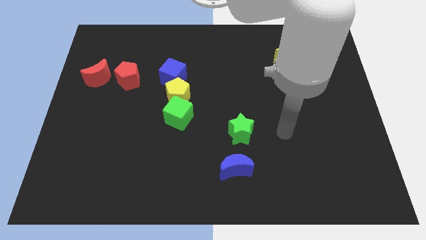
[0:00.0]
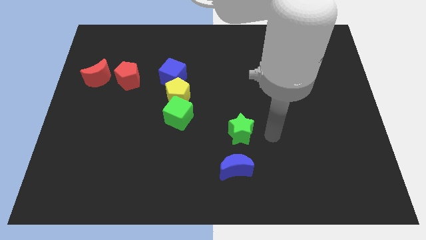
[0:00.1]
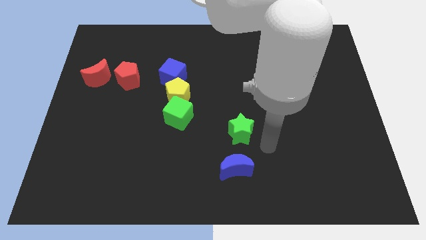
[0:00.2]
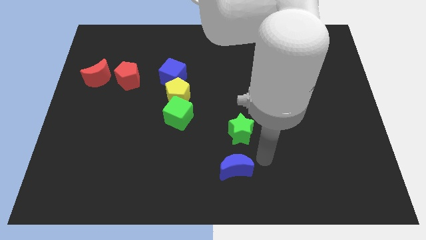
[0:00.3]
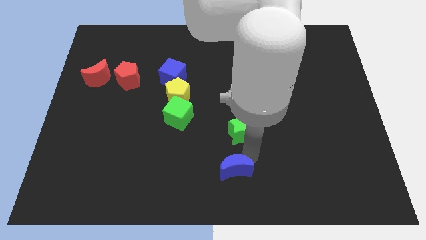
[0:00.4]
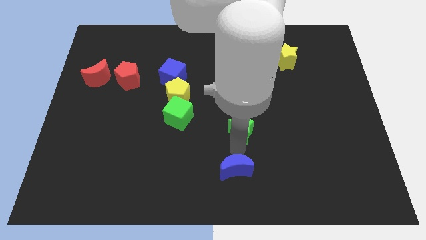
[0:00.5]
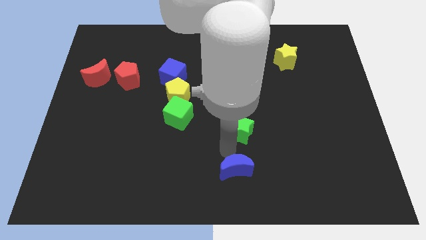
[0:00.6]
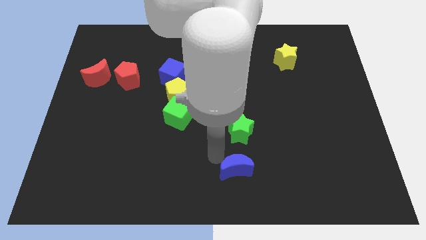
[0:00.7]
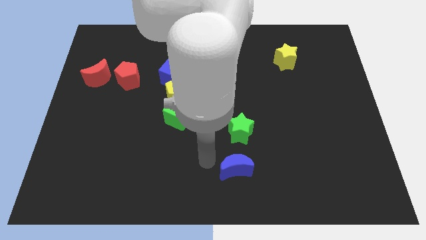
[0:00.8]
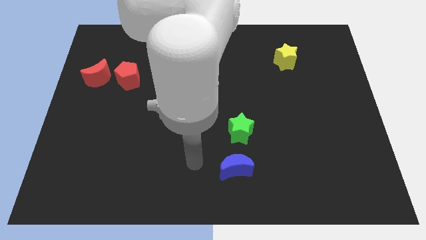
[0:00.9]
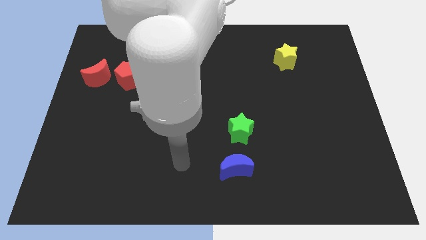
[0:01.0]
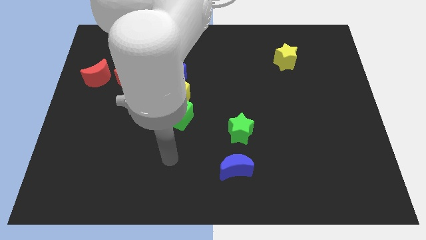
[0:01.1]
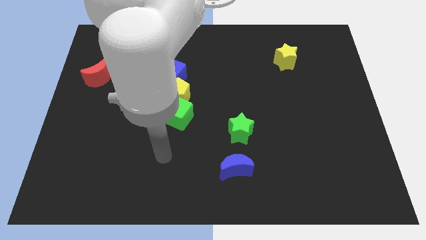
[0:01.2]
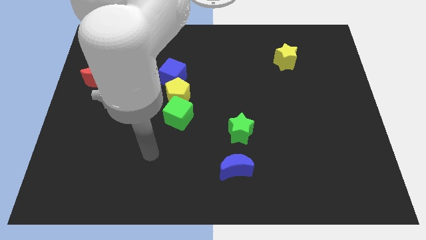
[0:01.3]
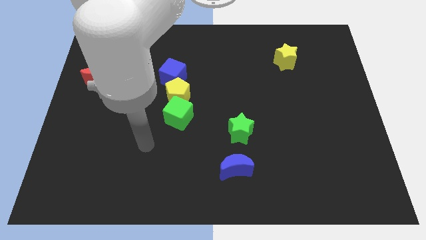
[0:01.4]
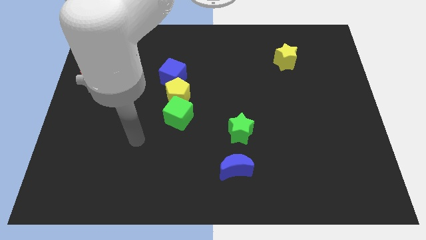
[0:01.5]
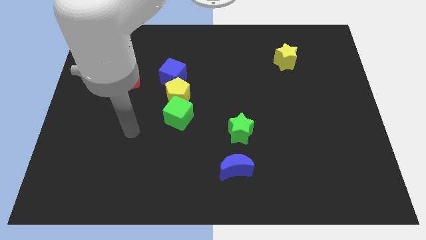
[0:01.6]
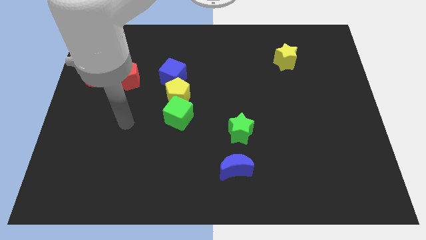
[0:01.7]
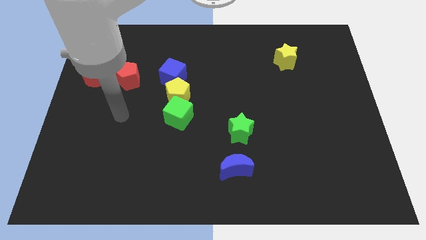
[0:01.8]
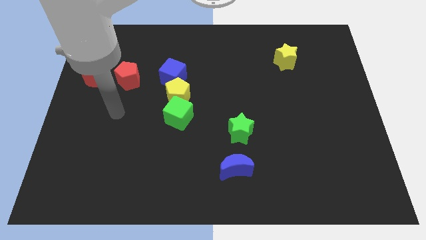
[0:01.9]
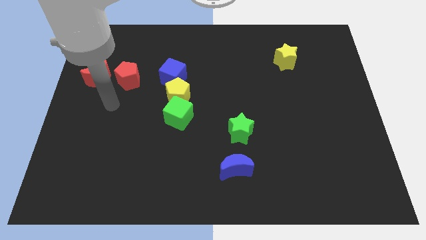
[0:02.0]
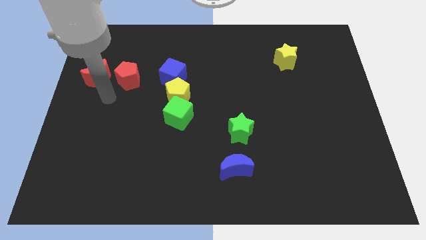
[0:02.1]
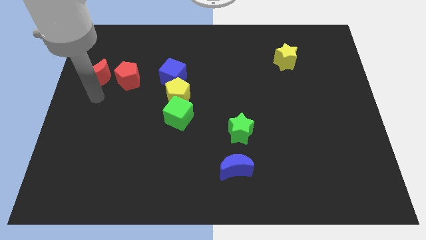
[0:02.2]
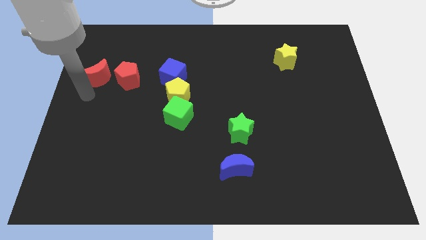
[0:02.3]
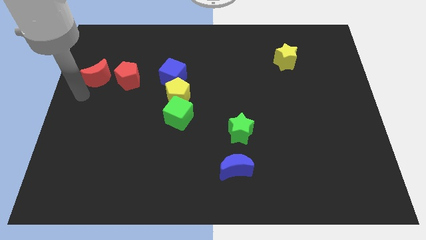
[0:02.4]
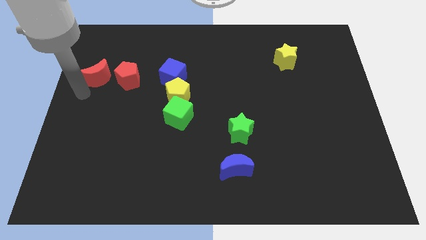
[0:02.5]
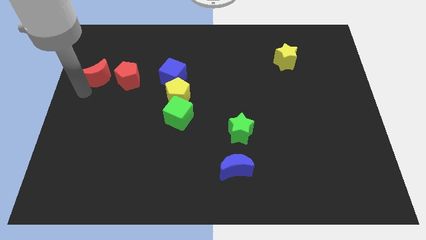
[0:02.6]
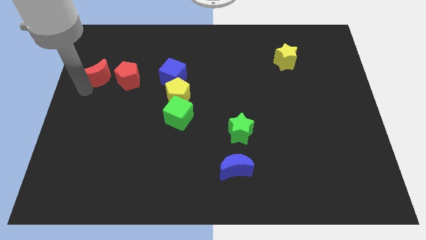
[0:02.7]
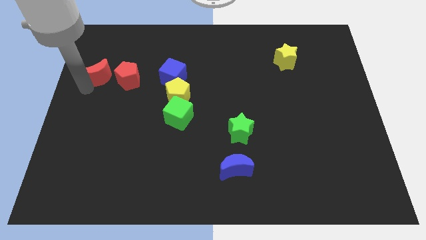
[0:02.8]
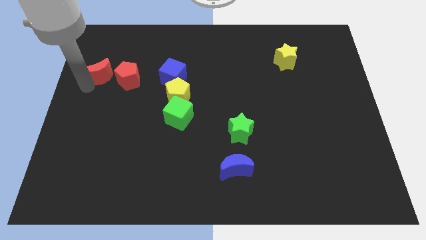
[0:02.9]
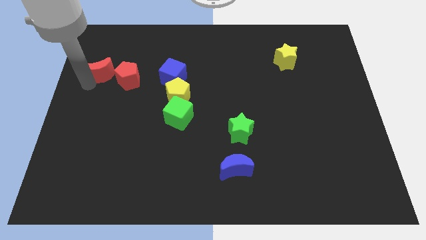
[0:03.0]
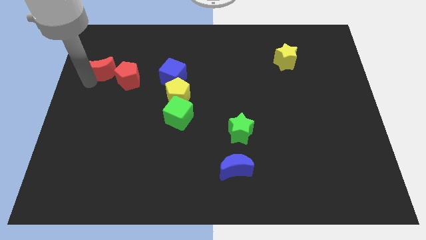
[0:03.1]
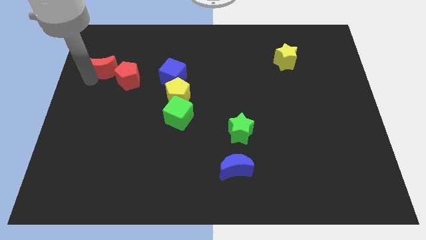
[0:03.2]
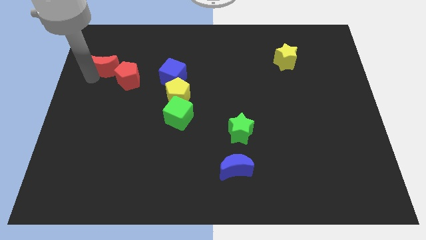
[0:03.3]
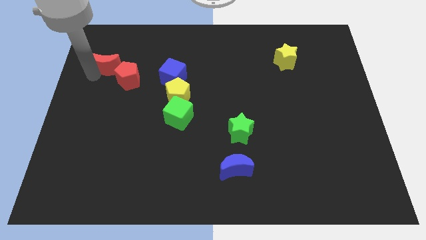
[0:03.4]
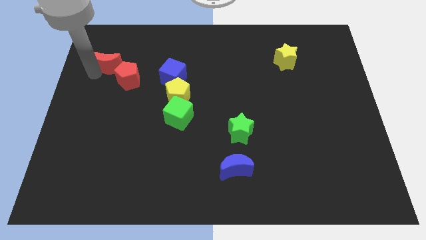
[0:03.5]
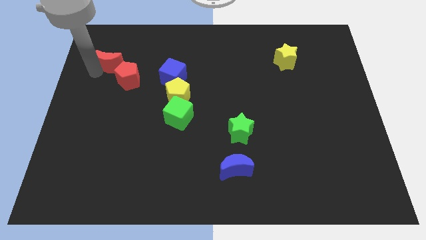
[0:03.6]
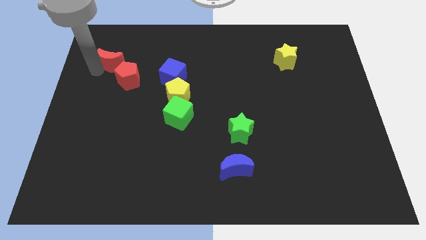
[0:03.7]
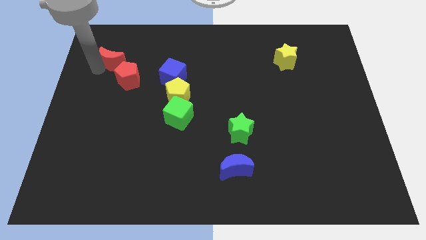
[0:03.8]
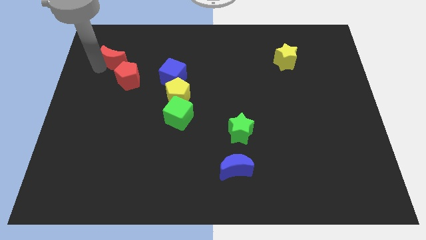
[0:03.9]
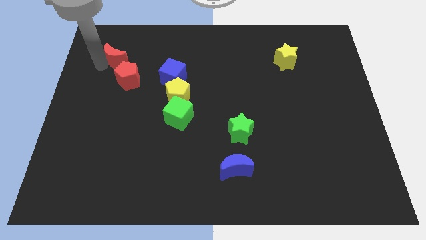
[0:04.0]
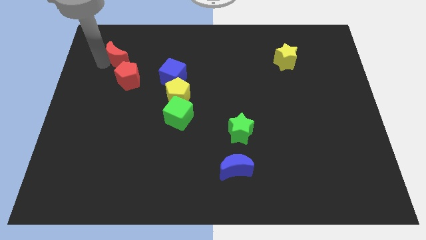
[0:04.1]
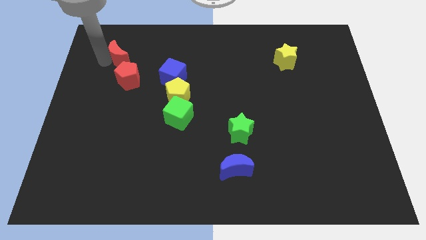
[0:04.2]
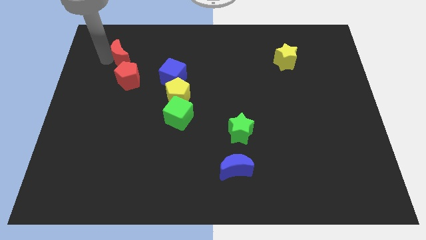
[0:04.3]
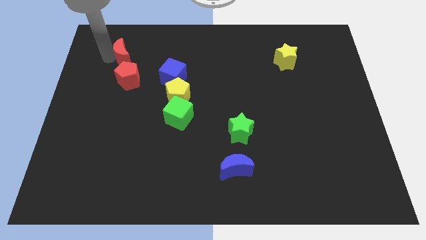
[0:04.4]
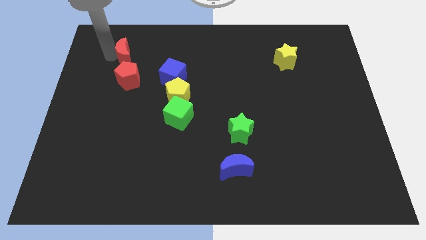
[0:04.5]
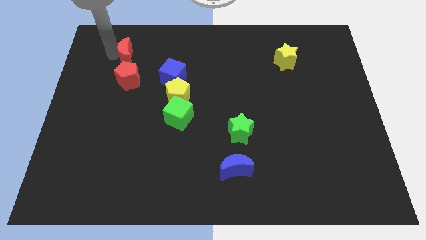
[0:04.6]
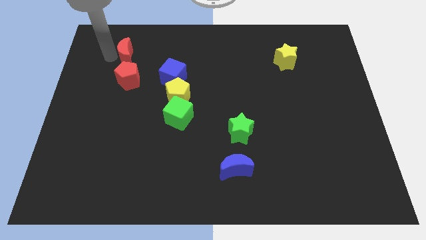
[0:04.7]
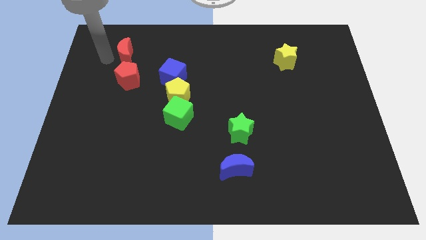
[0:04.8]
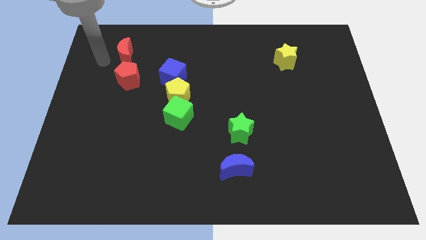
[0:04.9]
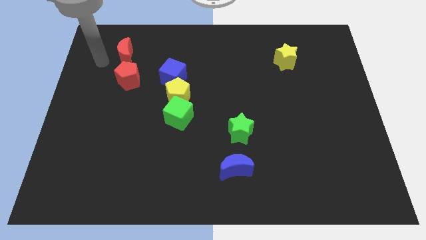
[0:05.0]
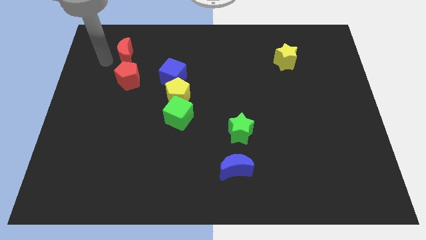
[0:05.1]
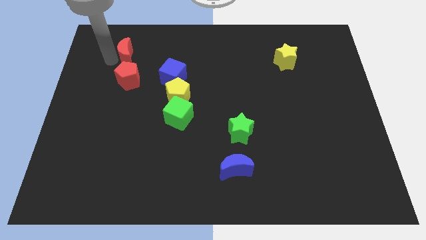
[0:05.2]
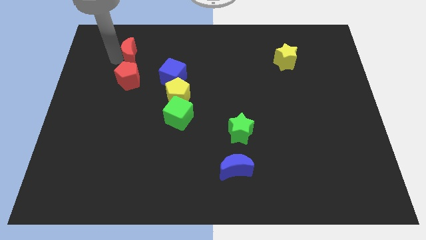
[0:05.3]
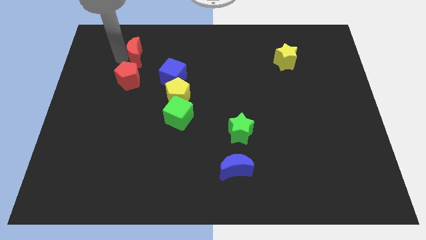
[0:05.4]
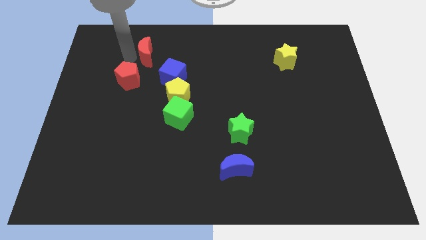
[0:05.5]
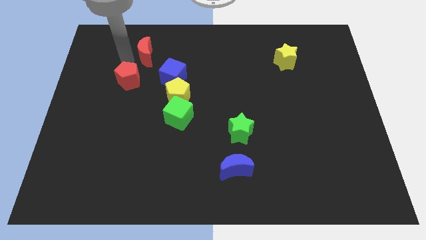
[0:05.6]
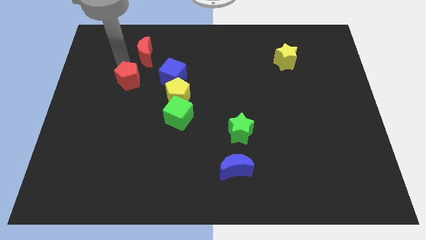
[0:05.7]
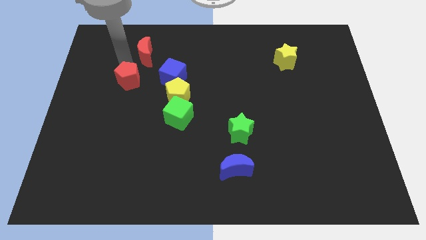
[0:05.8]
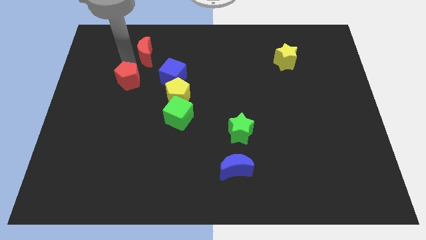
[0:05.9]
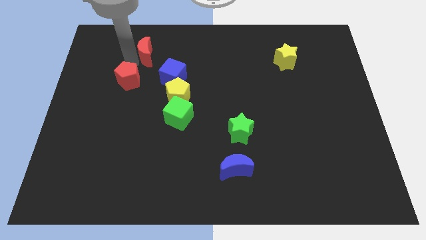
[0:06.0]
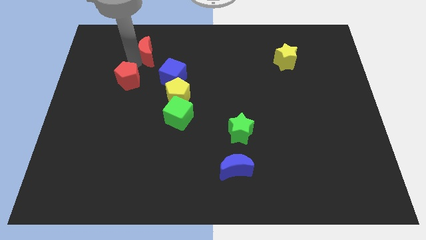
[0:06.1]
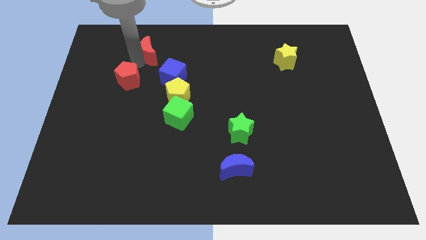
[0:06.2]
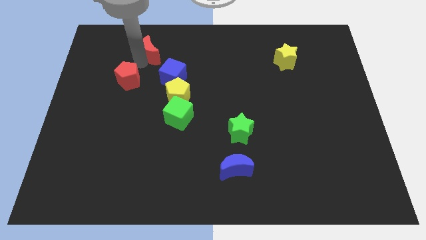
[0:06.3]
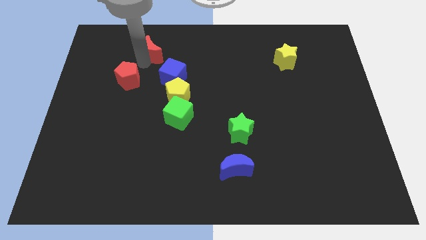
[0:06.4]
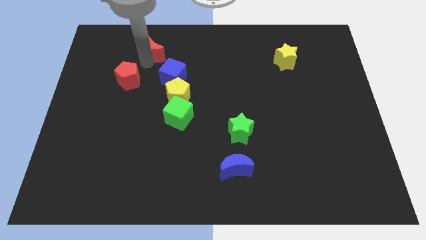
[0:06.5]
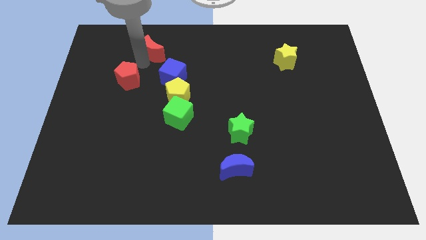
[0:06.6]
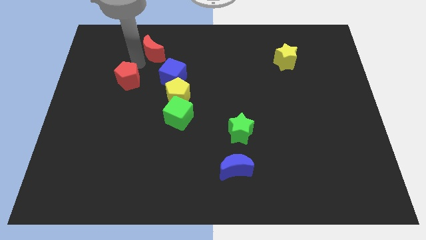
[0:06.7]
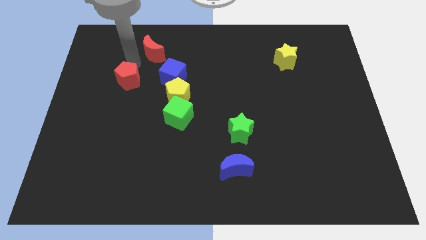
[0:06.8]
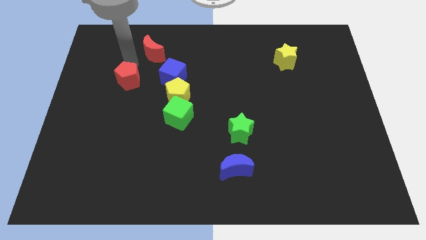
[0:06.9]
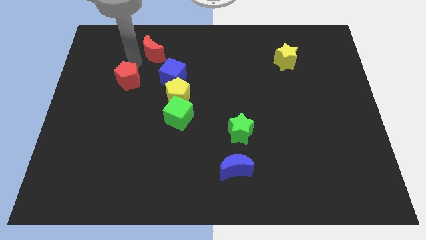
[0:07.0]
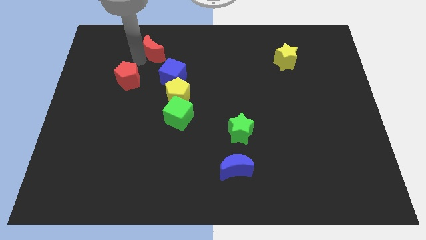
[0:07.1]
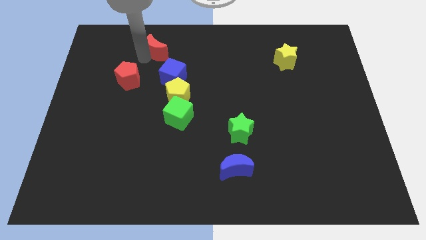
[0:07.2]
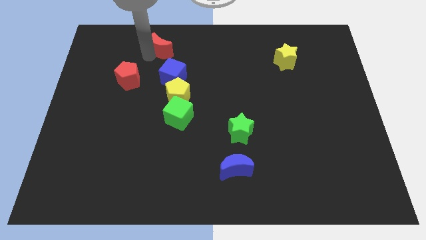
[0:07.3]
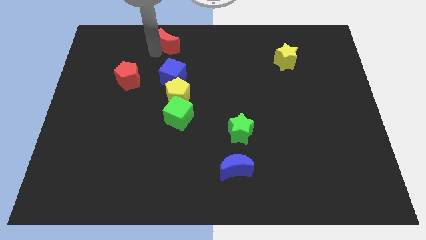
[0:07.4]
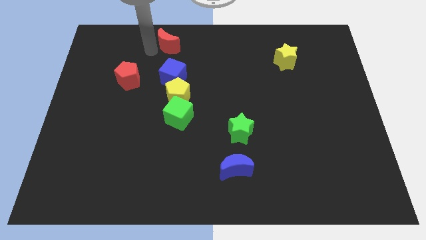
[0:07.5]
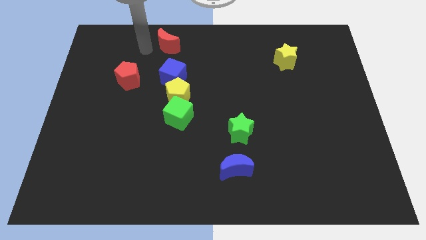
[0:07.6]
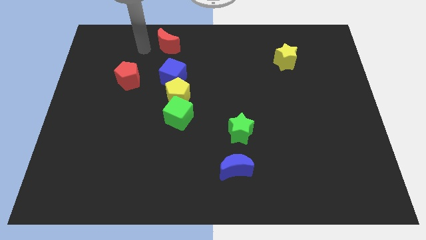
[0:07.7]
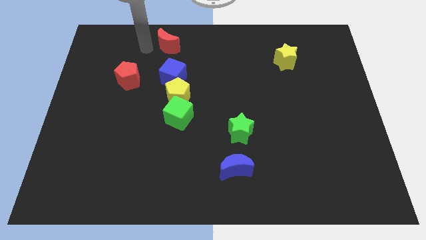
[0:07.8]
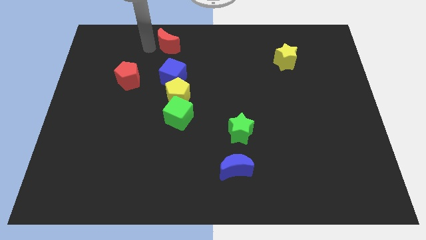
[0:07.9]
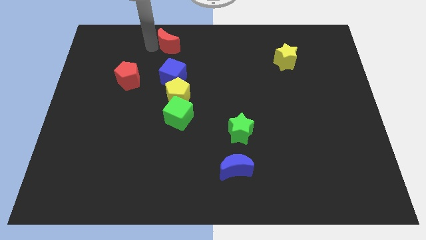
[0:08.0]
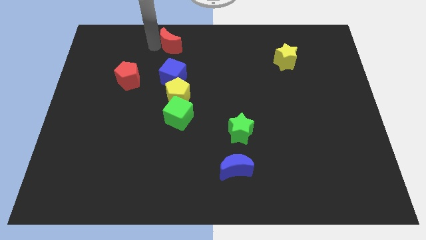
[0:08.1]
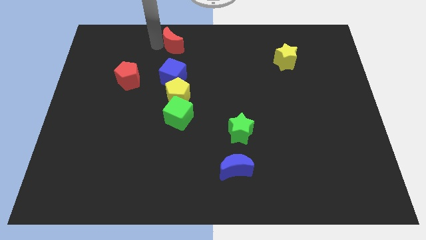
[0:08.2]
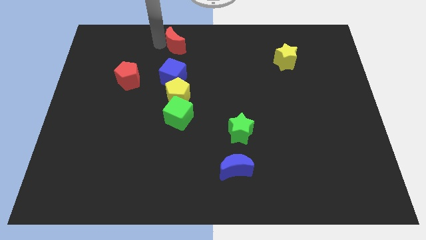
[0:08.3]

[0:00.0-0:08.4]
push the red moon to the towards your base
